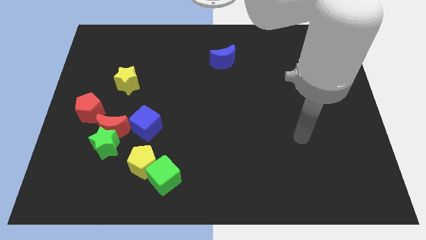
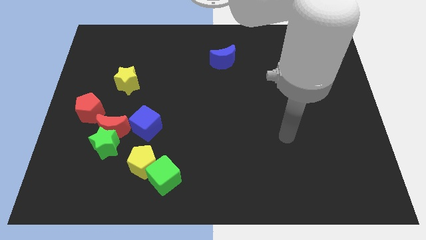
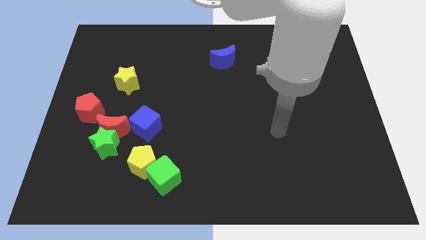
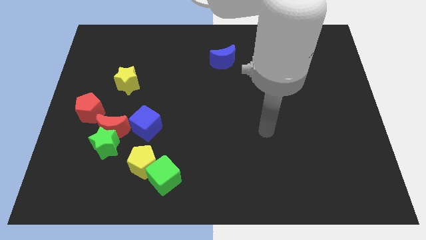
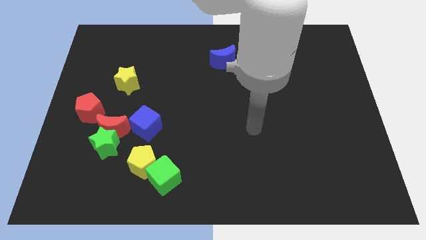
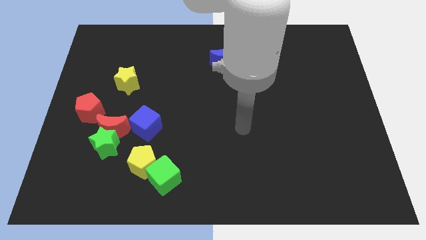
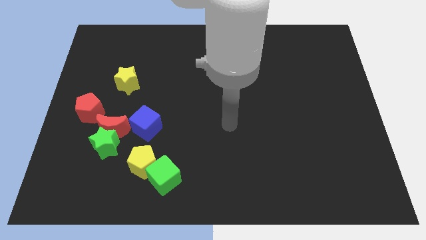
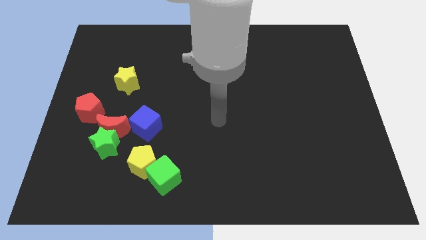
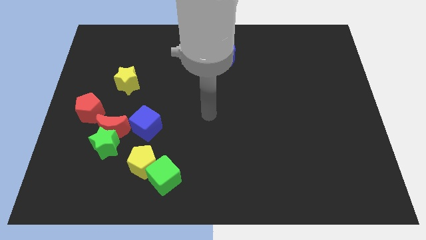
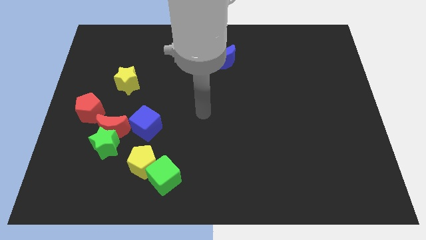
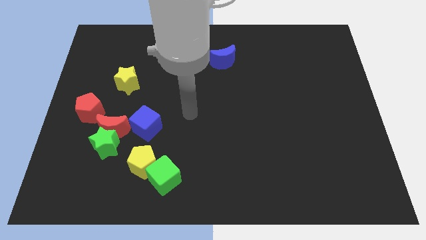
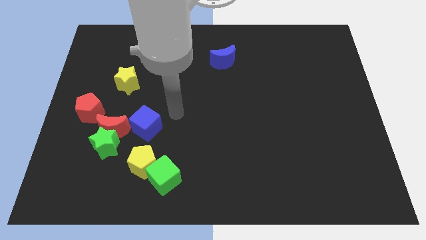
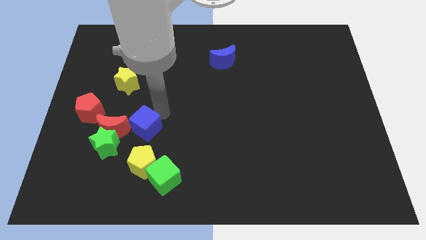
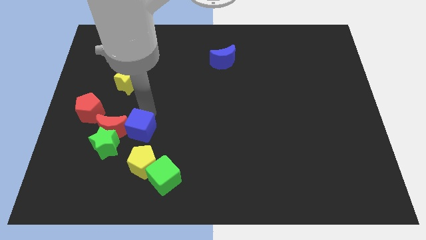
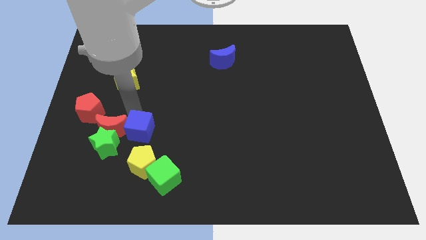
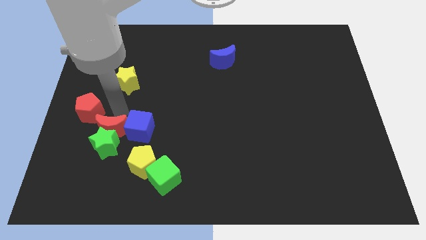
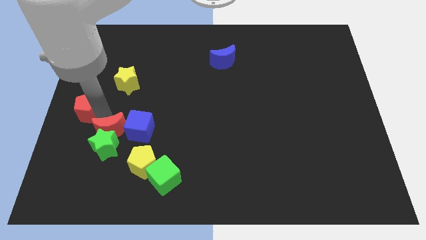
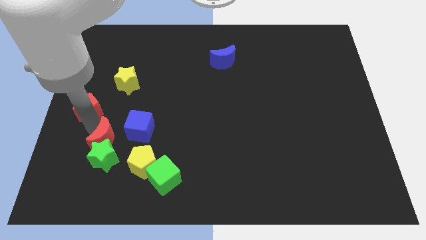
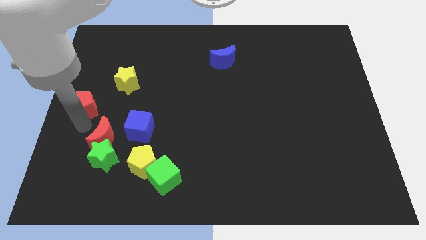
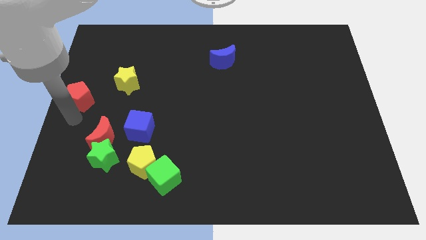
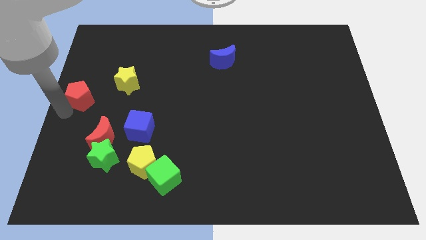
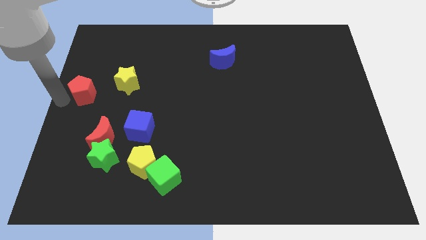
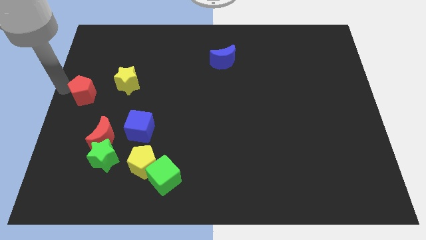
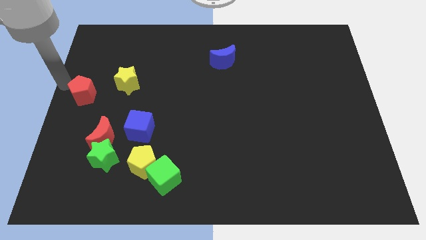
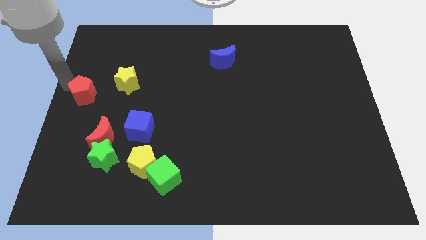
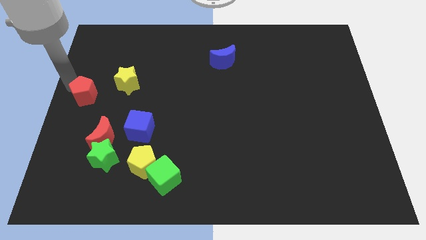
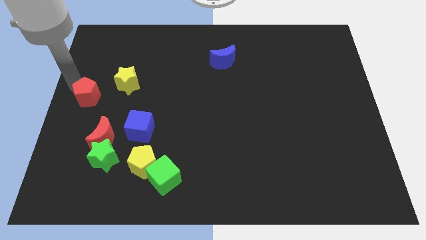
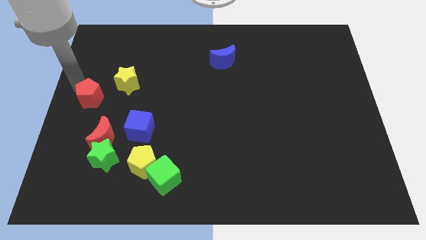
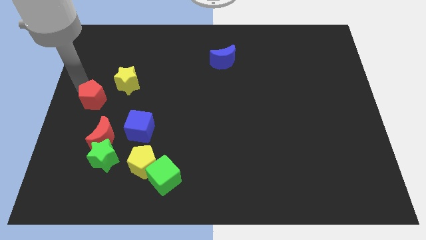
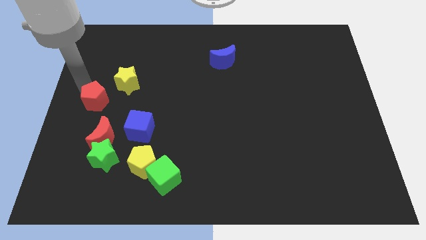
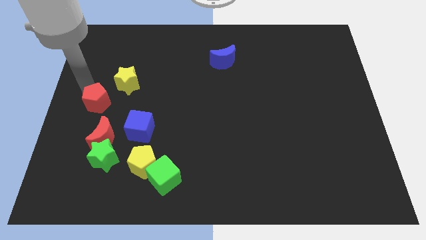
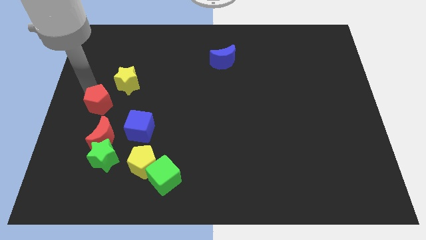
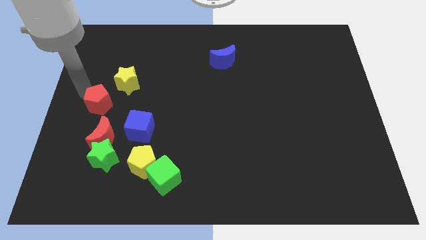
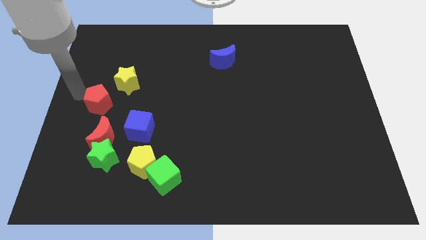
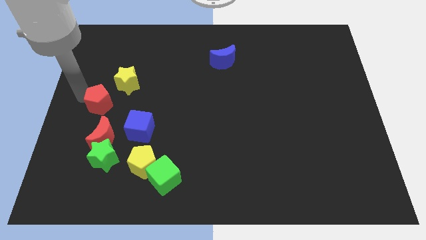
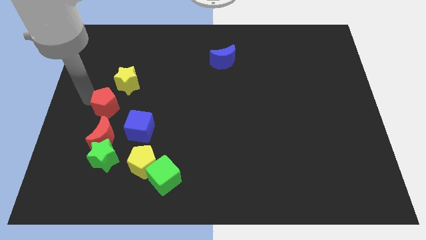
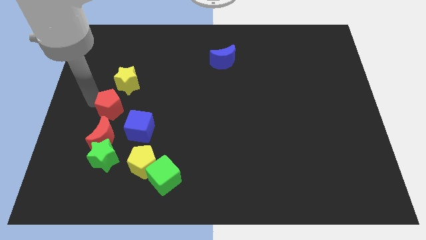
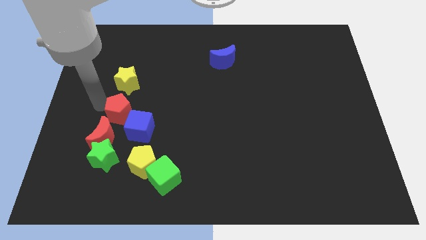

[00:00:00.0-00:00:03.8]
slightly slide the red pentagon to the right

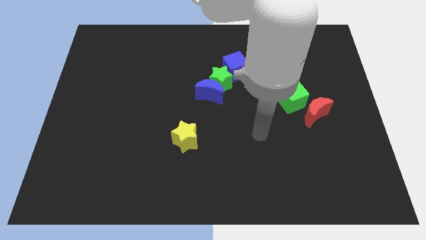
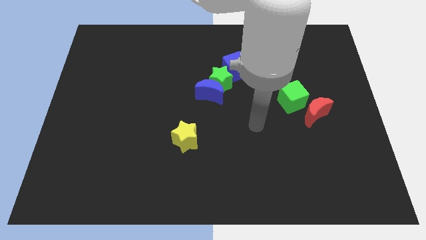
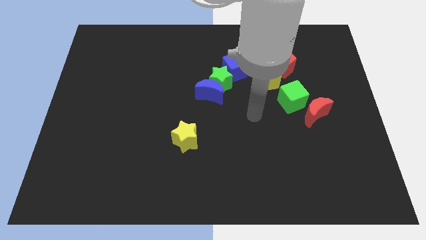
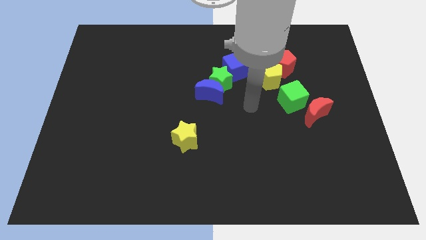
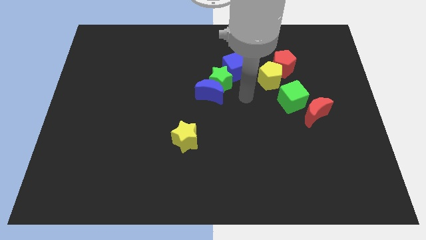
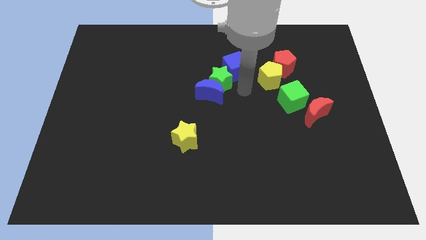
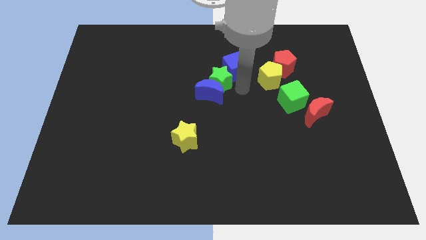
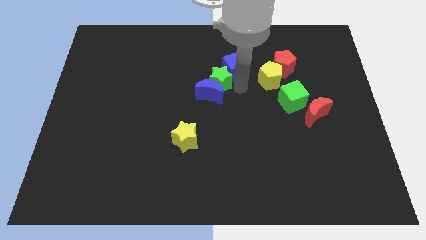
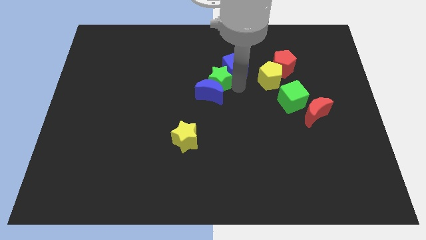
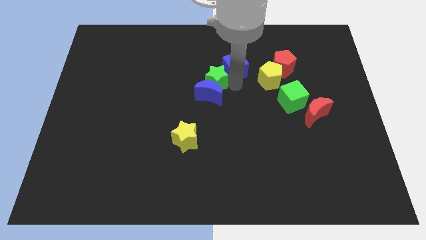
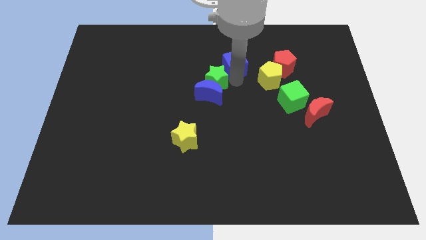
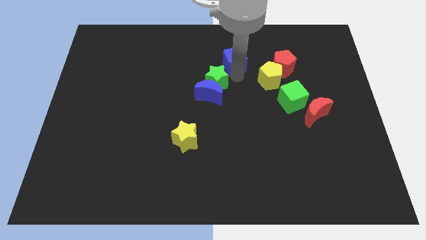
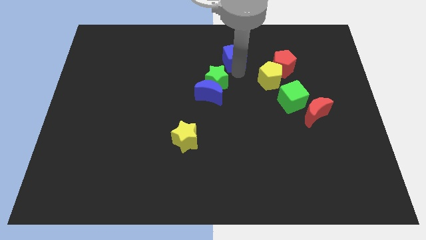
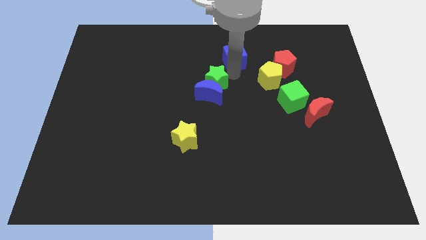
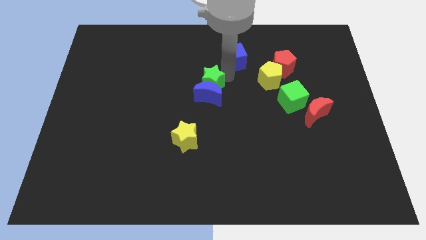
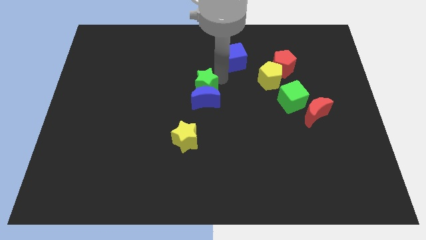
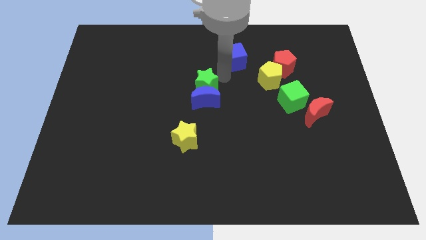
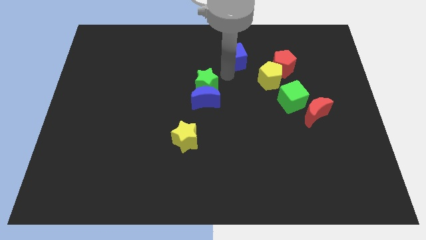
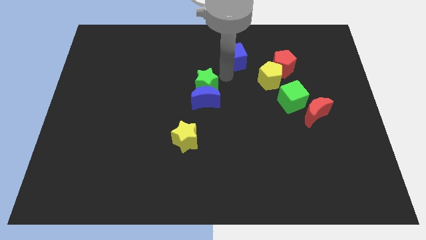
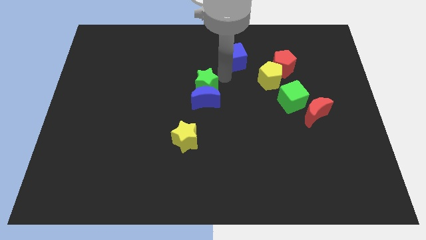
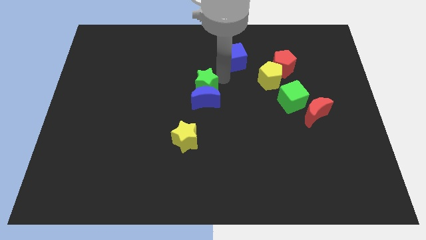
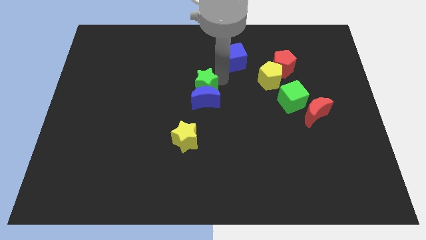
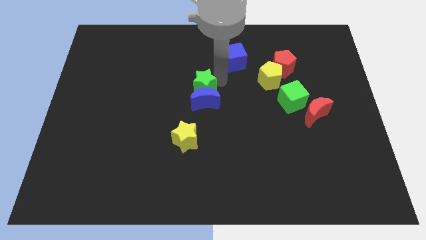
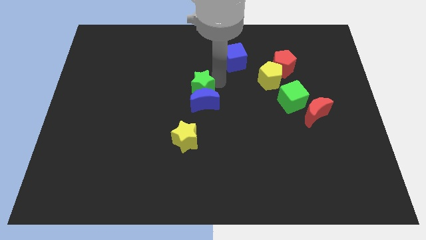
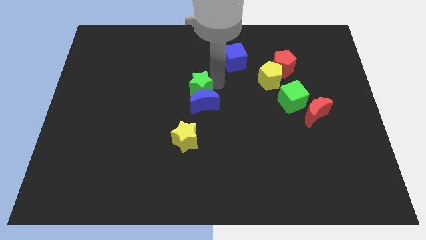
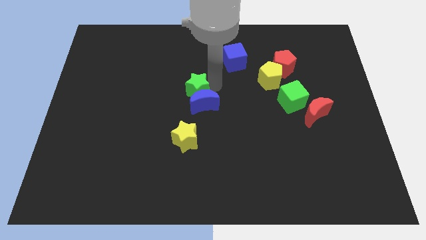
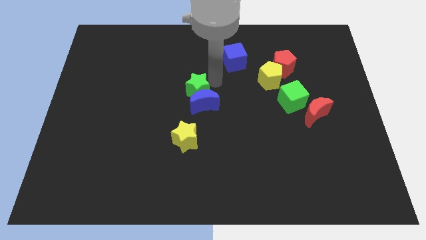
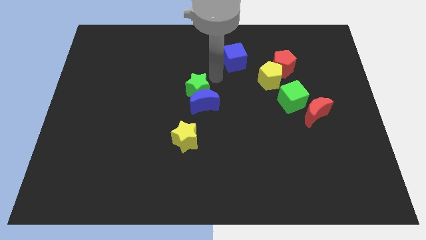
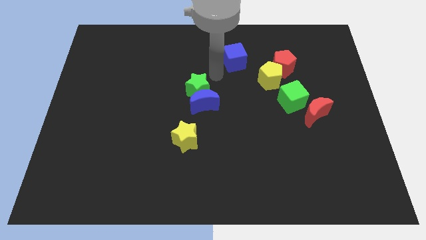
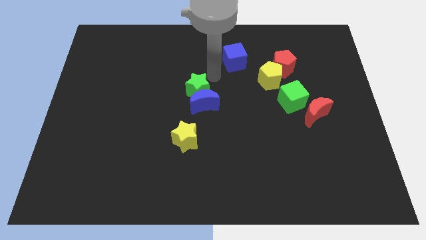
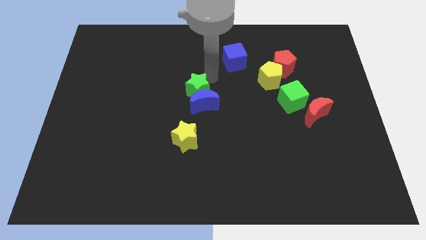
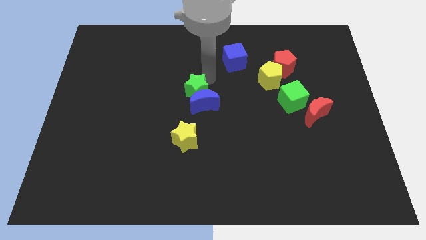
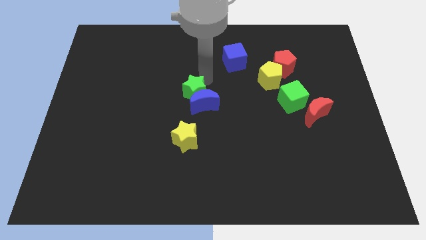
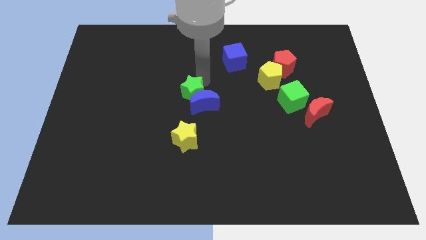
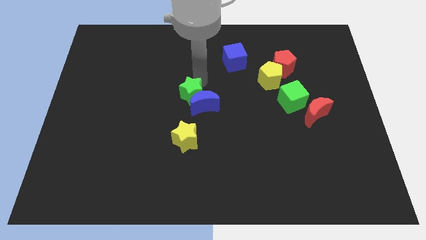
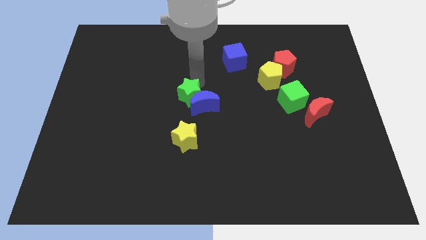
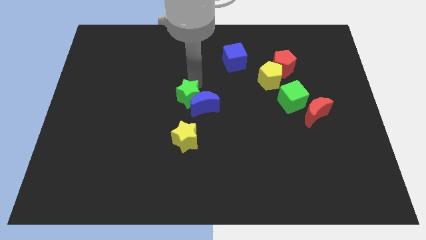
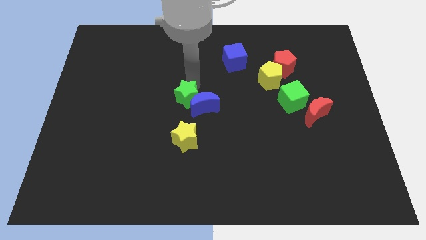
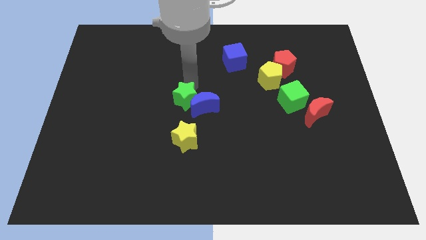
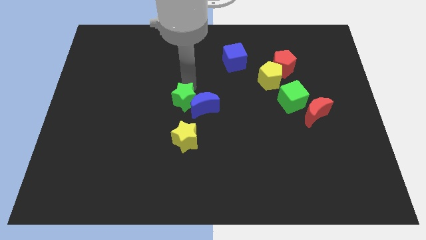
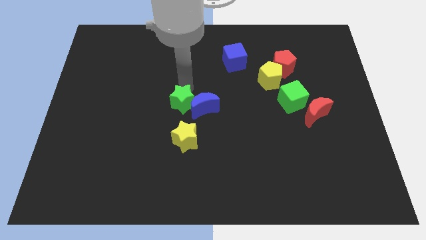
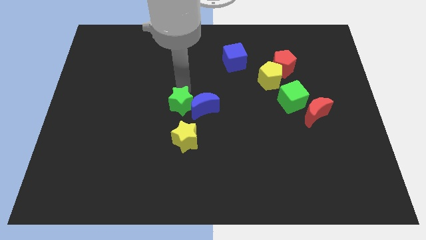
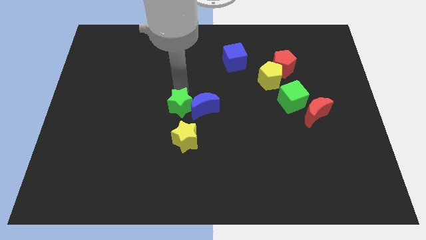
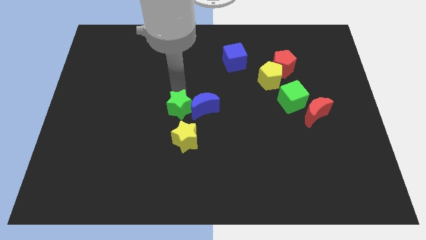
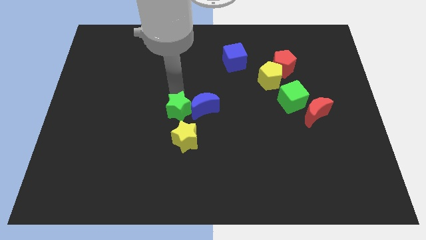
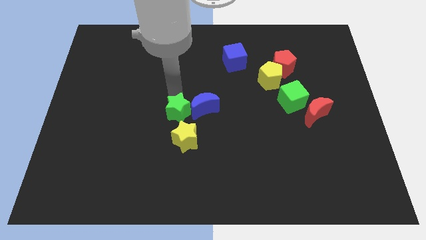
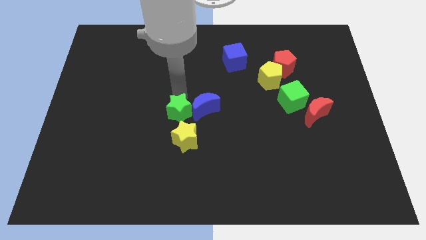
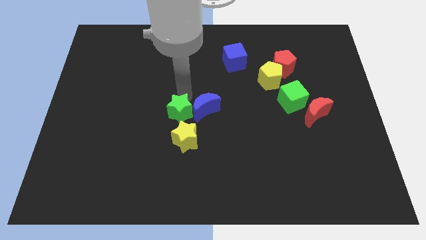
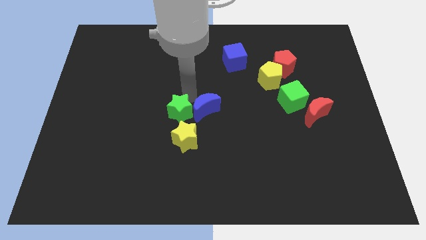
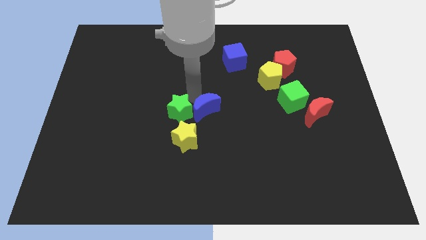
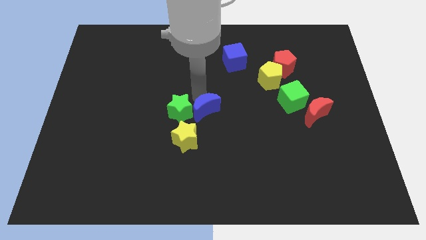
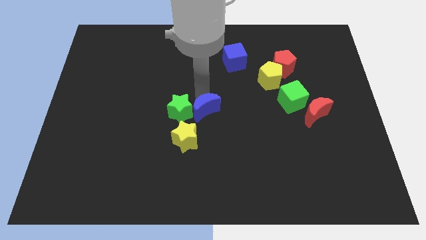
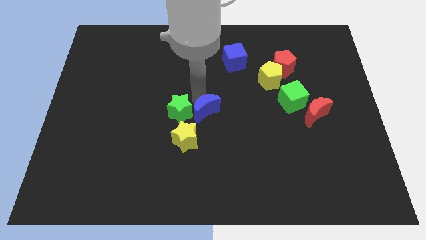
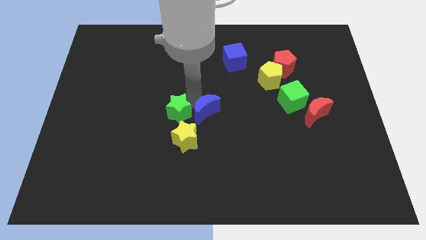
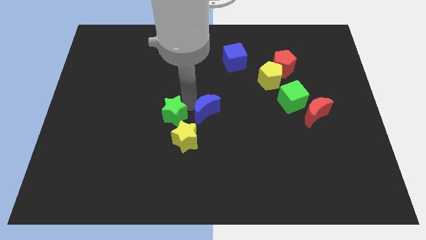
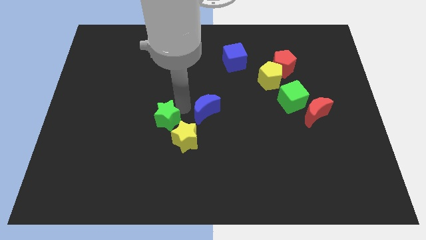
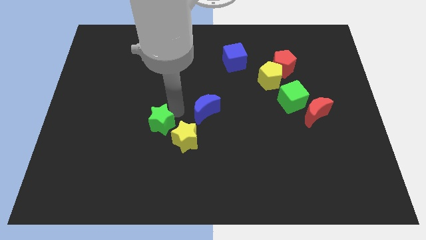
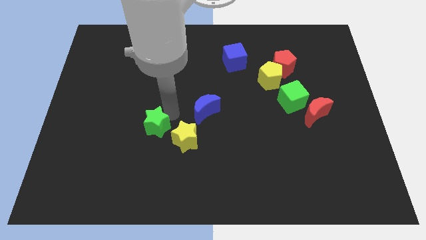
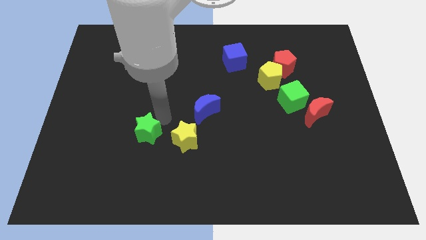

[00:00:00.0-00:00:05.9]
push the green star diagonally downwards and left
